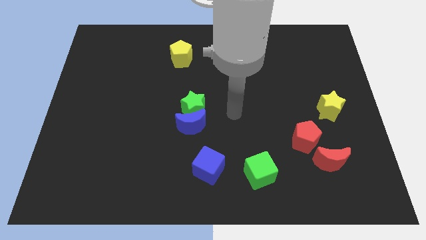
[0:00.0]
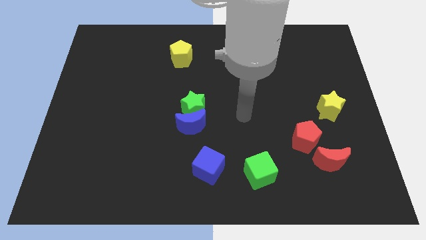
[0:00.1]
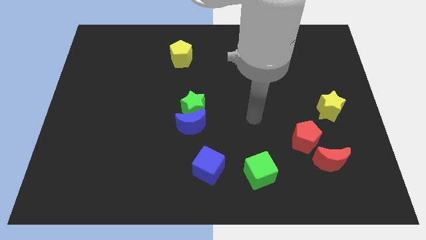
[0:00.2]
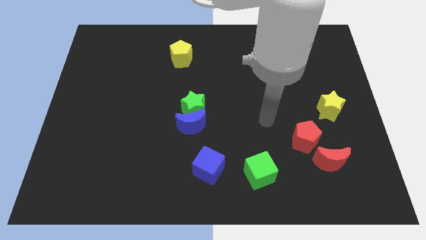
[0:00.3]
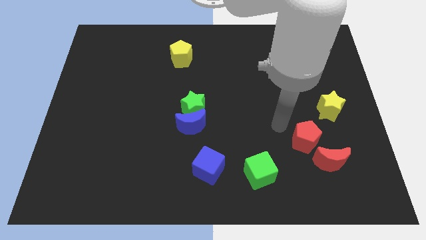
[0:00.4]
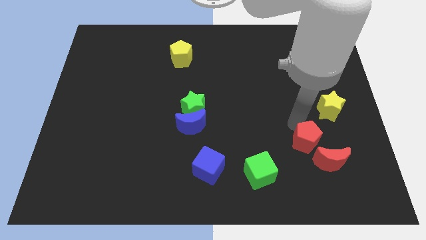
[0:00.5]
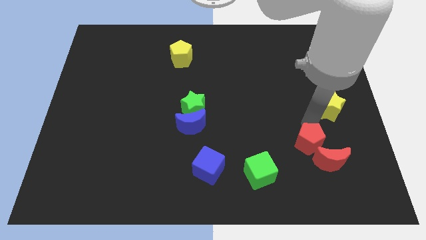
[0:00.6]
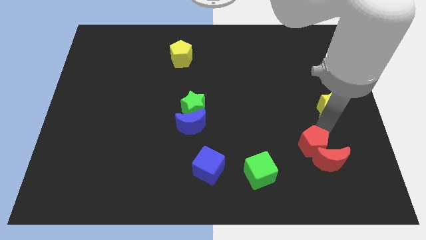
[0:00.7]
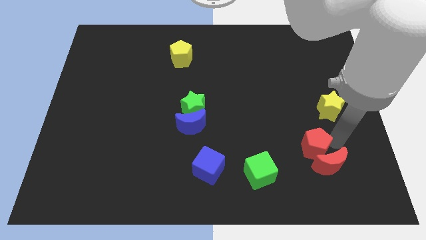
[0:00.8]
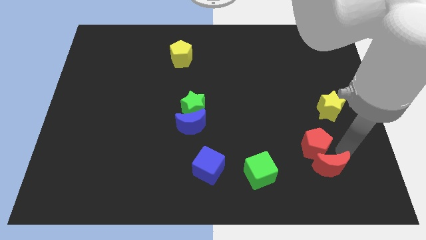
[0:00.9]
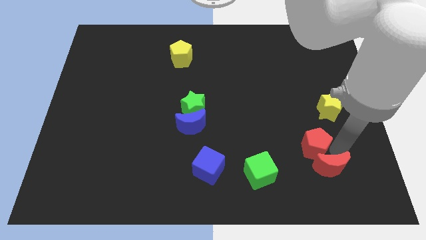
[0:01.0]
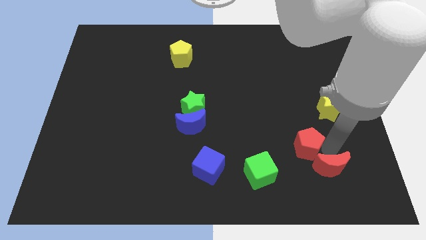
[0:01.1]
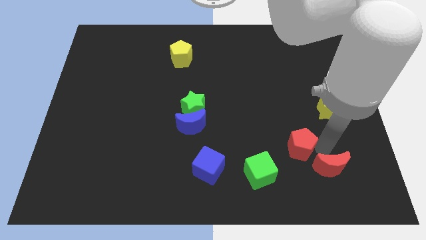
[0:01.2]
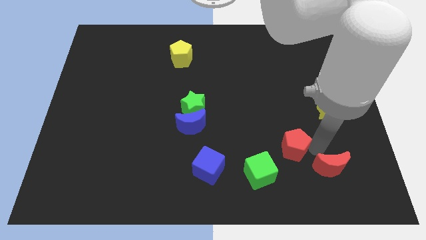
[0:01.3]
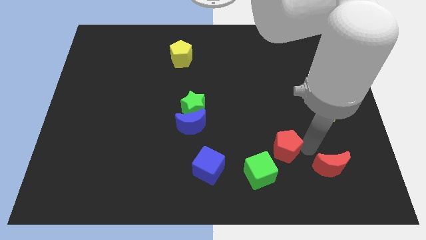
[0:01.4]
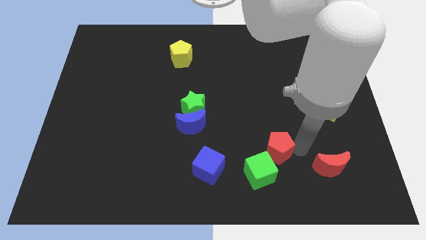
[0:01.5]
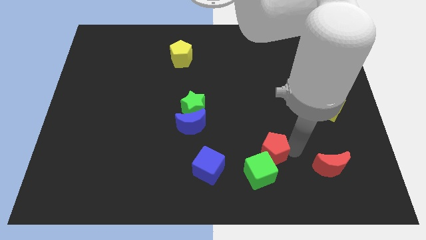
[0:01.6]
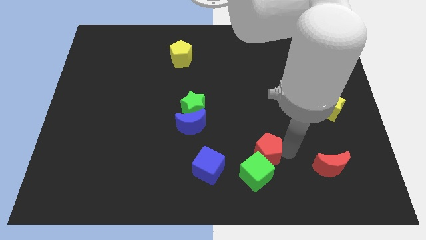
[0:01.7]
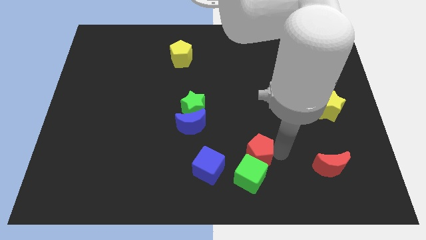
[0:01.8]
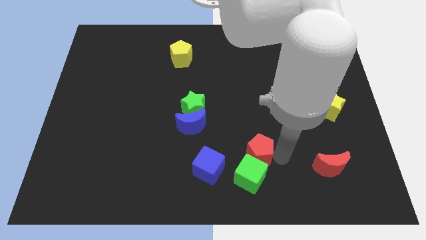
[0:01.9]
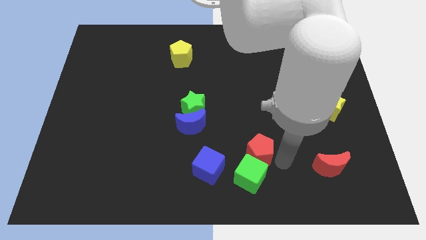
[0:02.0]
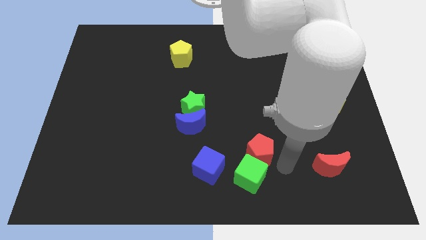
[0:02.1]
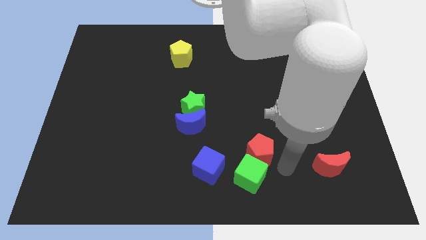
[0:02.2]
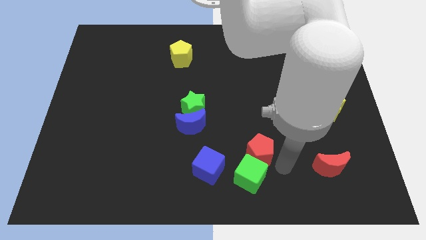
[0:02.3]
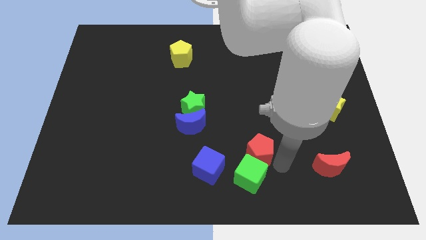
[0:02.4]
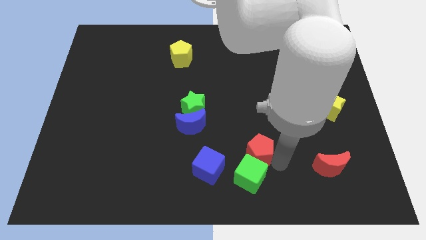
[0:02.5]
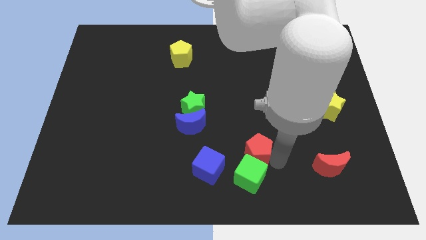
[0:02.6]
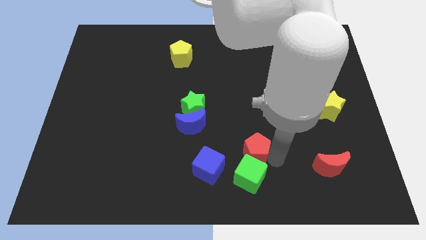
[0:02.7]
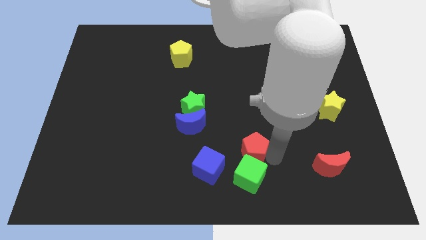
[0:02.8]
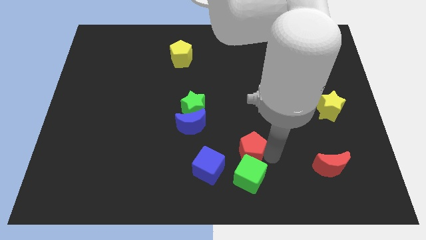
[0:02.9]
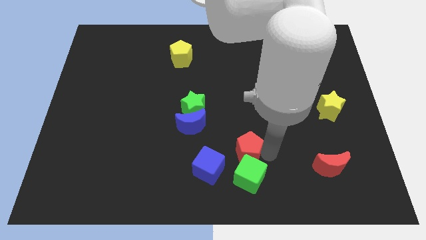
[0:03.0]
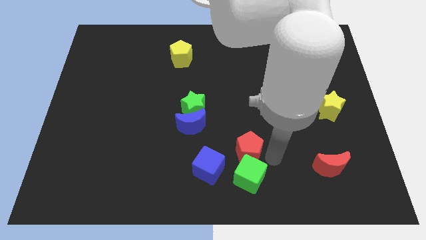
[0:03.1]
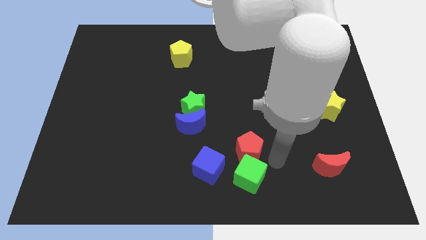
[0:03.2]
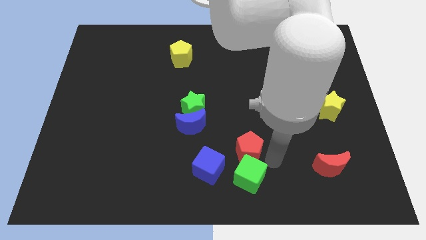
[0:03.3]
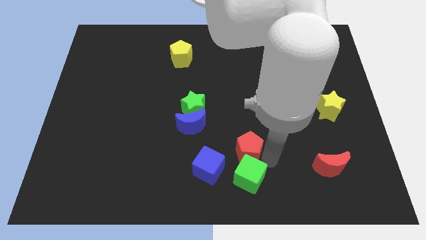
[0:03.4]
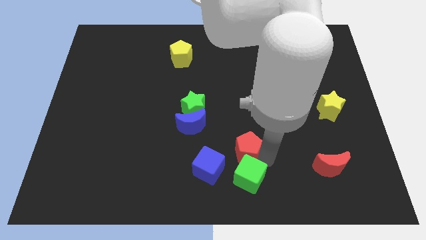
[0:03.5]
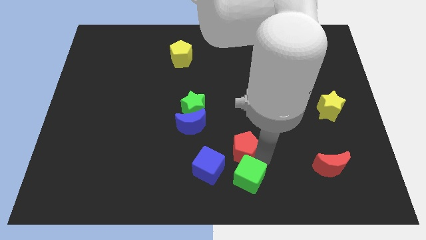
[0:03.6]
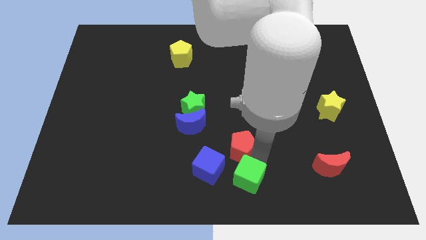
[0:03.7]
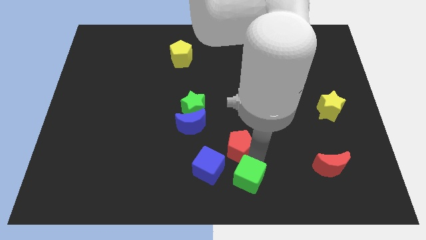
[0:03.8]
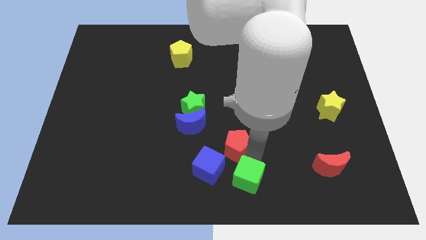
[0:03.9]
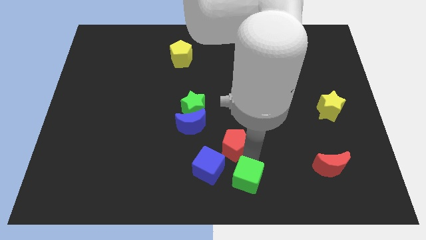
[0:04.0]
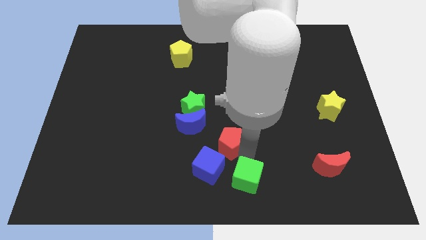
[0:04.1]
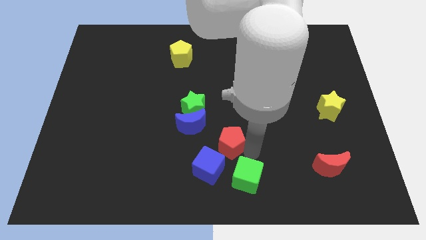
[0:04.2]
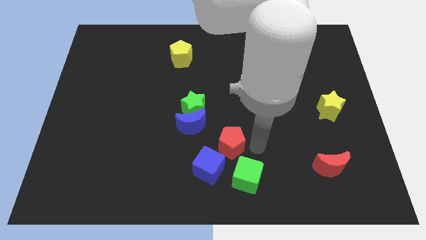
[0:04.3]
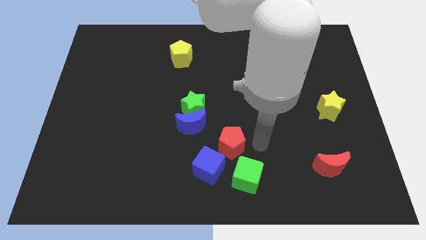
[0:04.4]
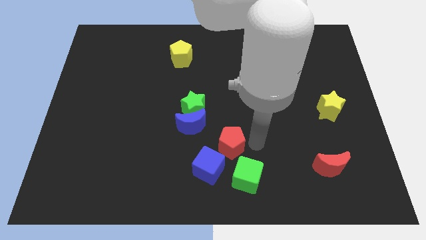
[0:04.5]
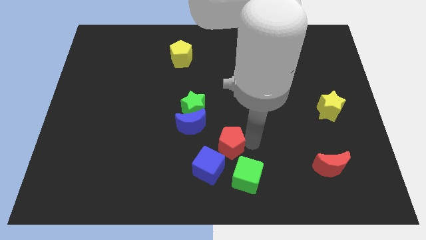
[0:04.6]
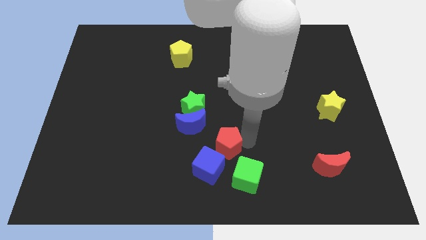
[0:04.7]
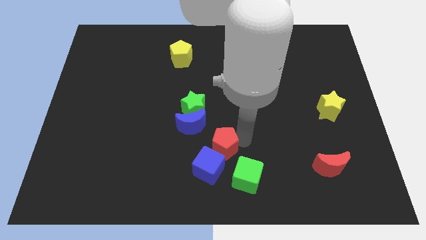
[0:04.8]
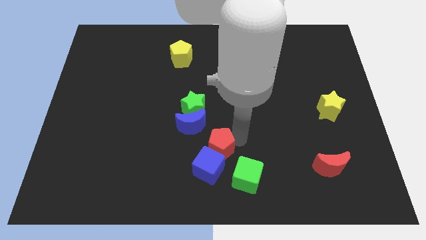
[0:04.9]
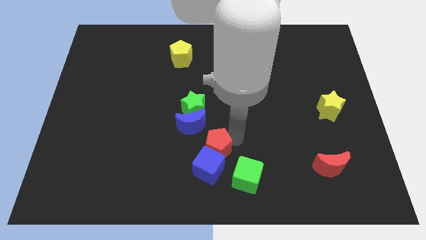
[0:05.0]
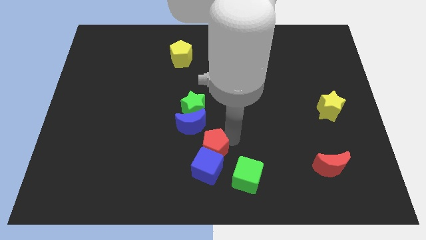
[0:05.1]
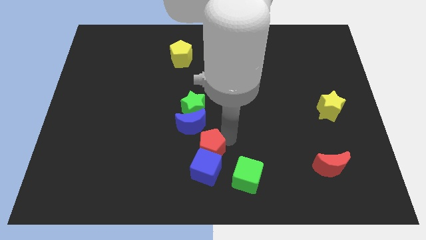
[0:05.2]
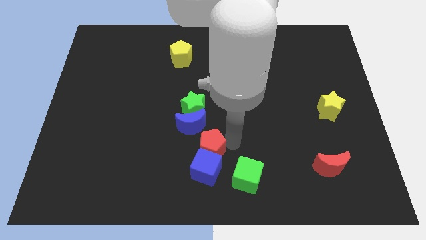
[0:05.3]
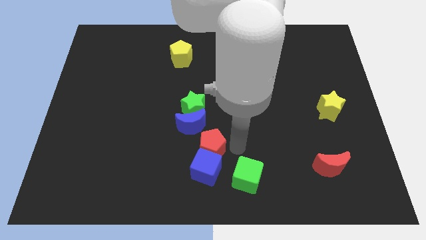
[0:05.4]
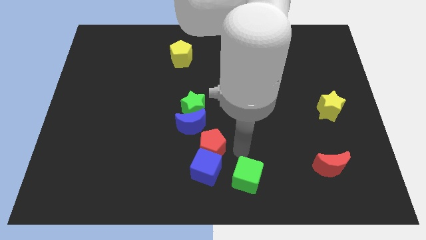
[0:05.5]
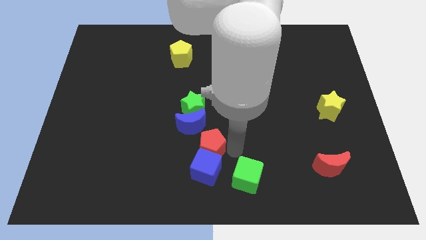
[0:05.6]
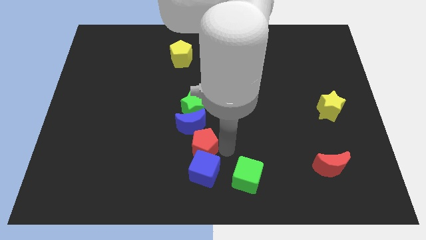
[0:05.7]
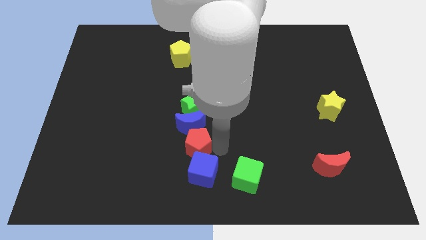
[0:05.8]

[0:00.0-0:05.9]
move the red pentagon to the bottom left side of the blue moon

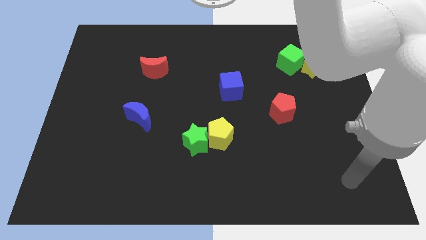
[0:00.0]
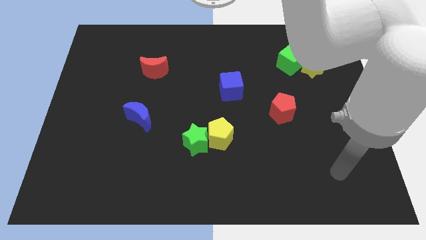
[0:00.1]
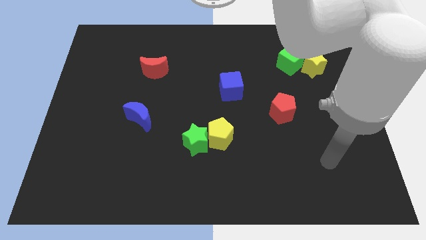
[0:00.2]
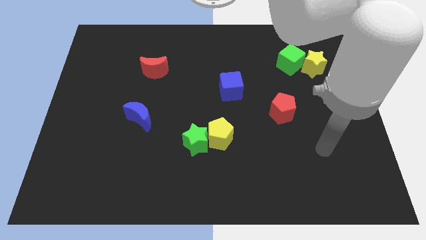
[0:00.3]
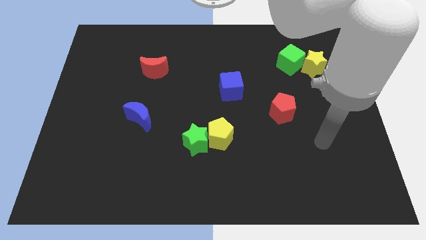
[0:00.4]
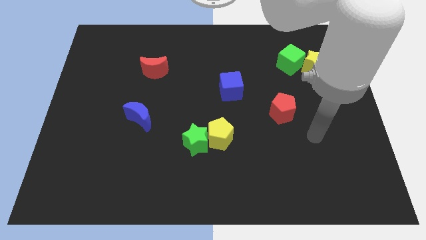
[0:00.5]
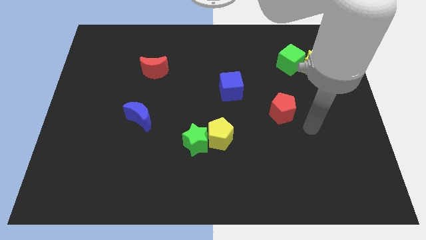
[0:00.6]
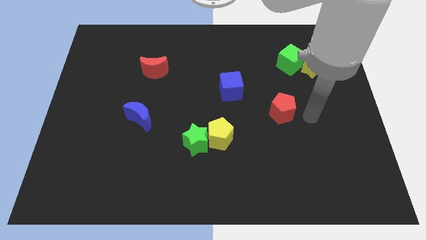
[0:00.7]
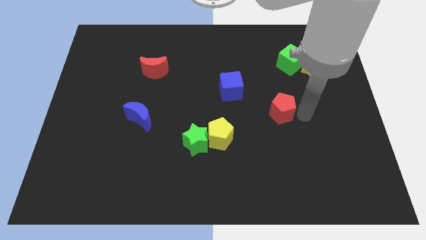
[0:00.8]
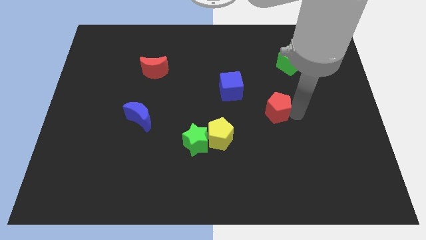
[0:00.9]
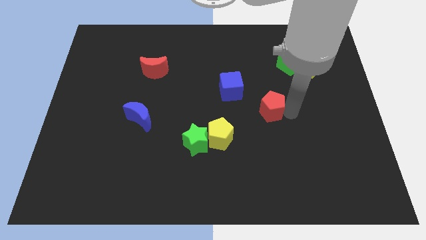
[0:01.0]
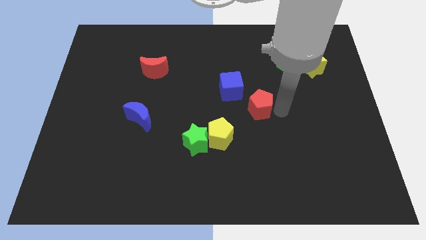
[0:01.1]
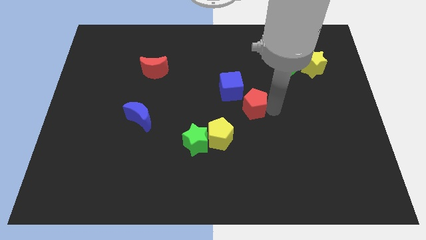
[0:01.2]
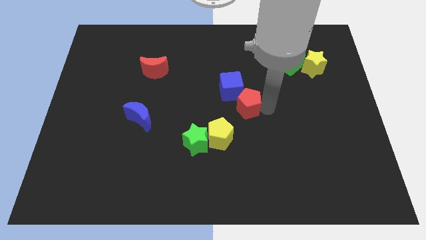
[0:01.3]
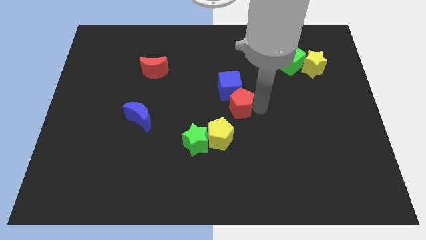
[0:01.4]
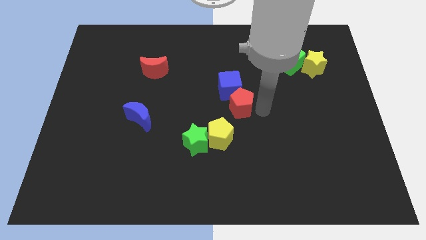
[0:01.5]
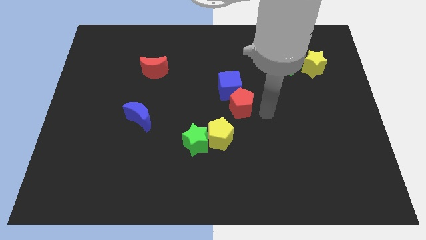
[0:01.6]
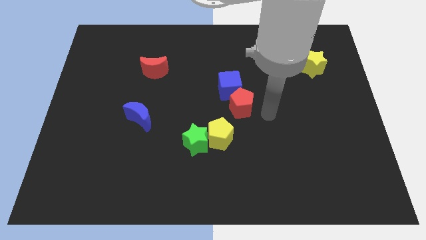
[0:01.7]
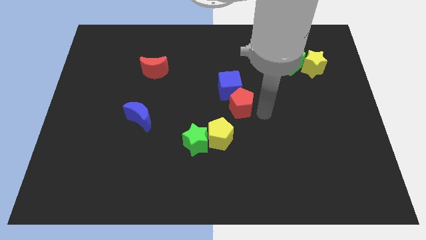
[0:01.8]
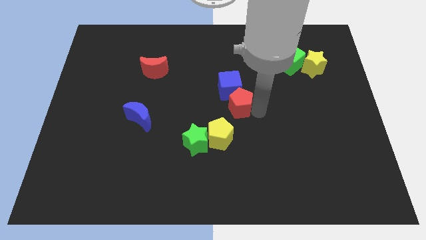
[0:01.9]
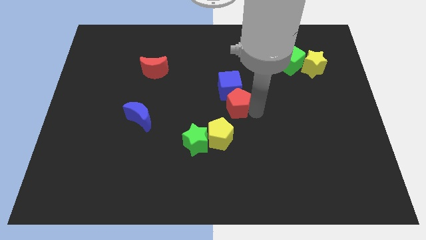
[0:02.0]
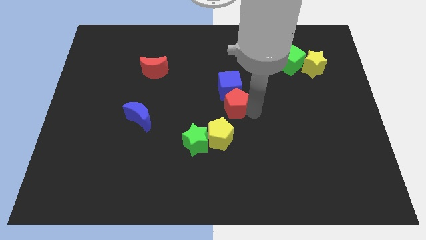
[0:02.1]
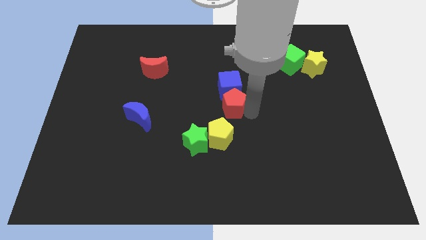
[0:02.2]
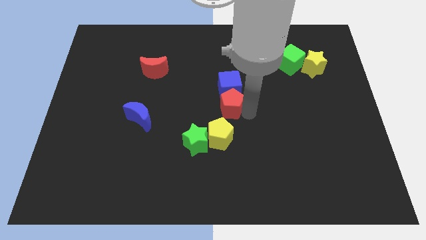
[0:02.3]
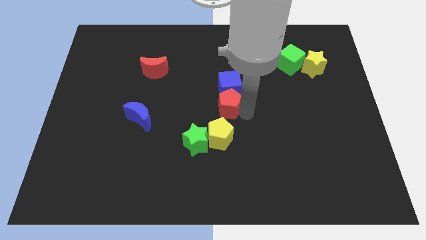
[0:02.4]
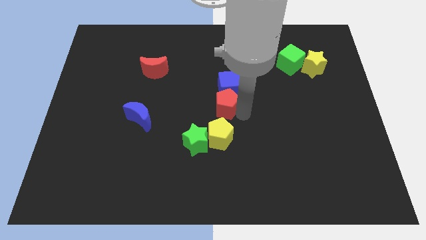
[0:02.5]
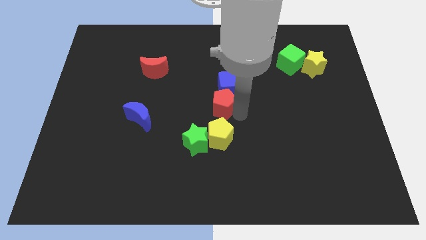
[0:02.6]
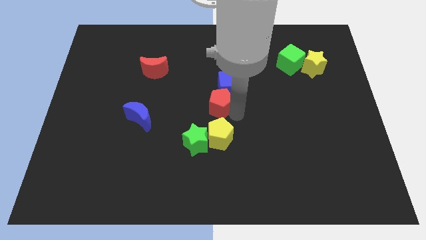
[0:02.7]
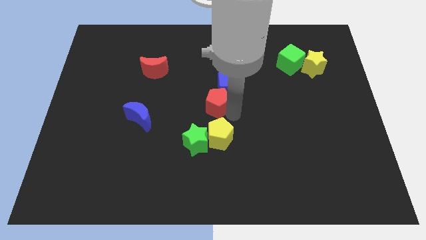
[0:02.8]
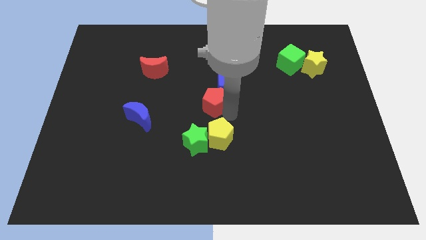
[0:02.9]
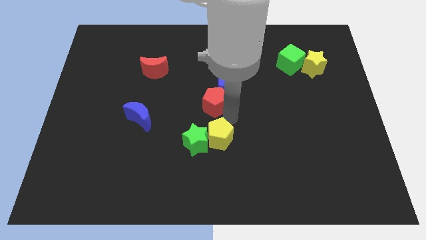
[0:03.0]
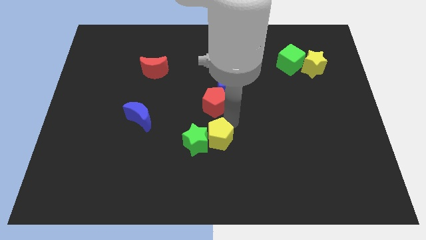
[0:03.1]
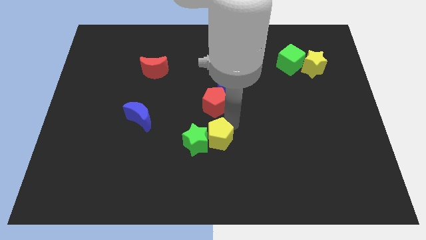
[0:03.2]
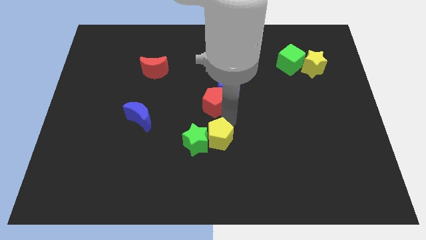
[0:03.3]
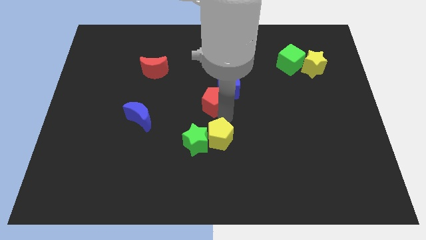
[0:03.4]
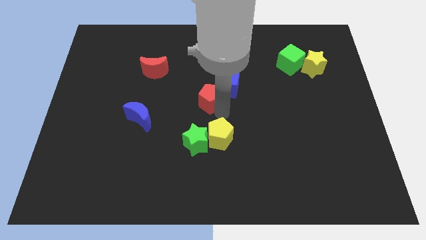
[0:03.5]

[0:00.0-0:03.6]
put the red pentagon to the left side of the blue cube
